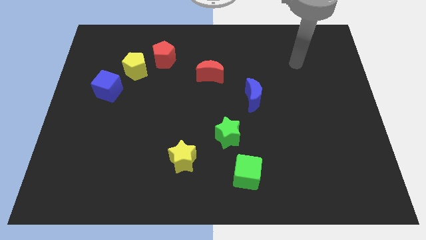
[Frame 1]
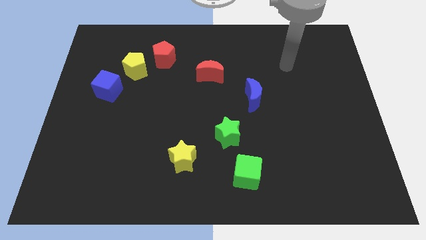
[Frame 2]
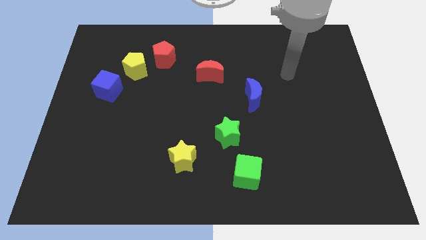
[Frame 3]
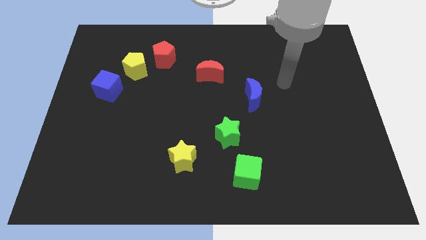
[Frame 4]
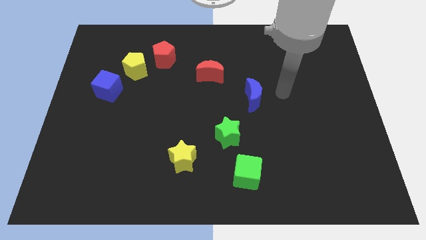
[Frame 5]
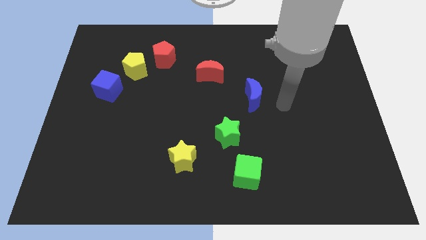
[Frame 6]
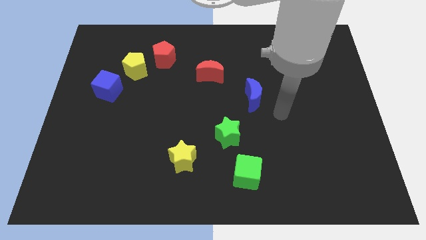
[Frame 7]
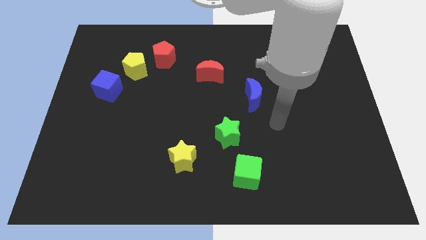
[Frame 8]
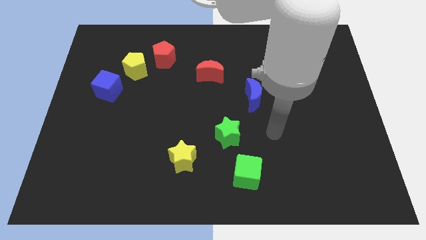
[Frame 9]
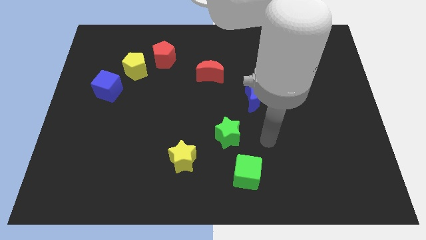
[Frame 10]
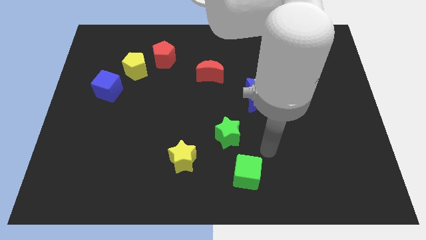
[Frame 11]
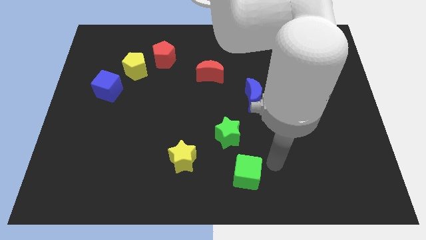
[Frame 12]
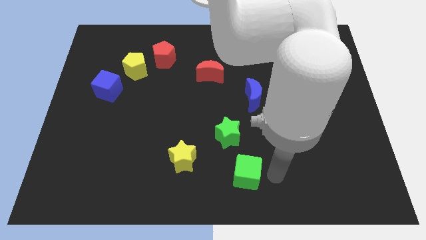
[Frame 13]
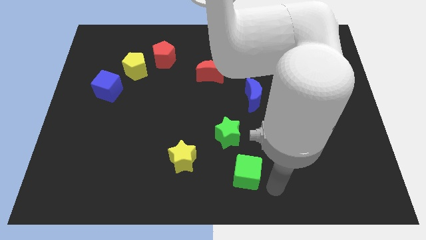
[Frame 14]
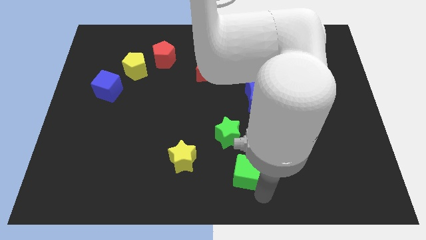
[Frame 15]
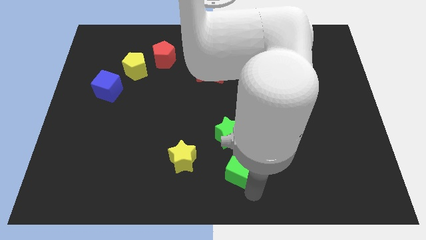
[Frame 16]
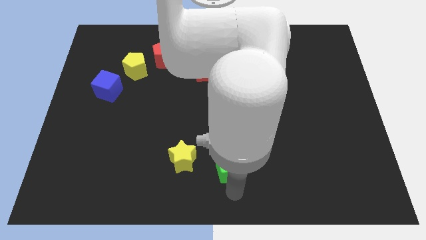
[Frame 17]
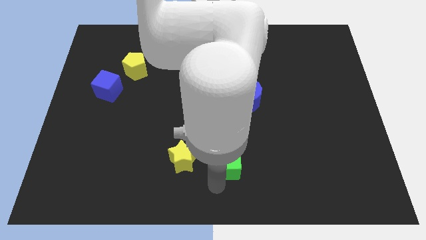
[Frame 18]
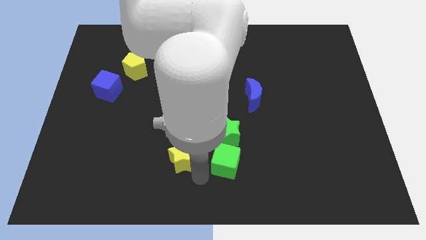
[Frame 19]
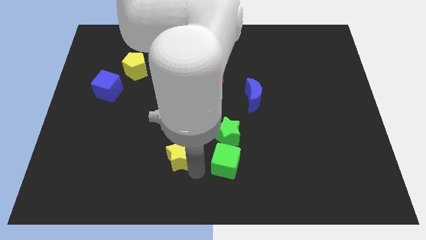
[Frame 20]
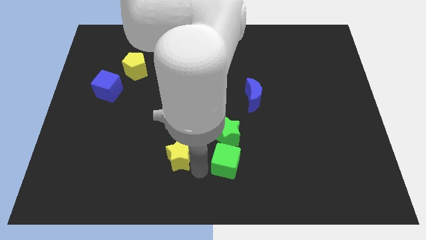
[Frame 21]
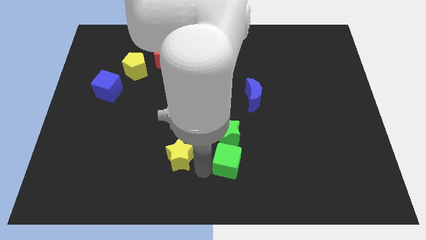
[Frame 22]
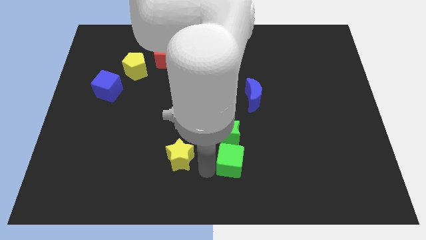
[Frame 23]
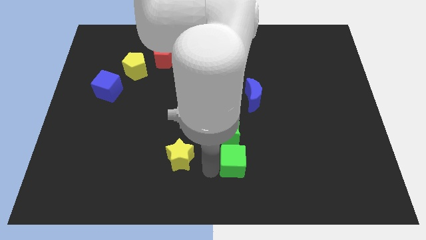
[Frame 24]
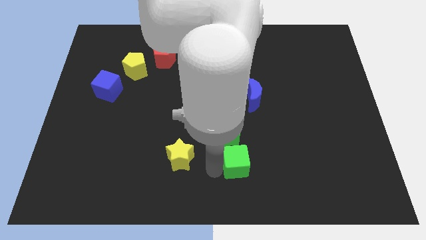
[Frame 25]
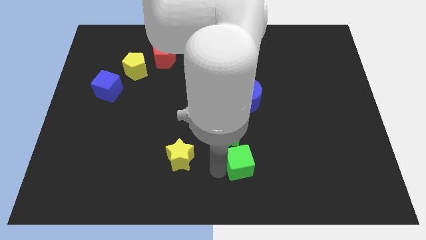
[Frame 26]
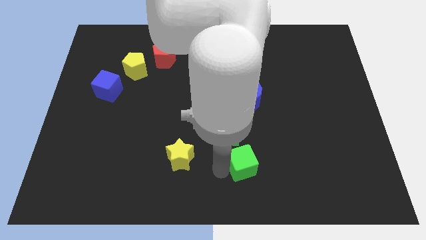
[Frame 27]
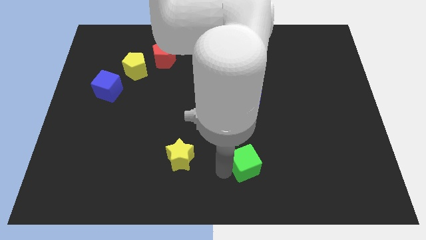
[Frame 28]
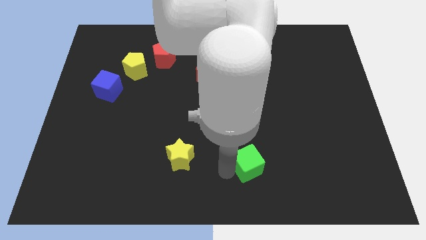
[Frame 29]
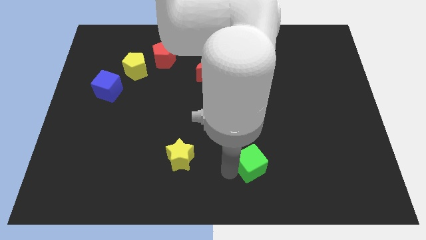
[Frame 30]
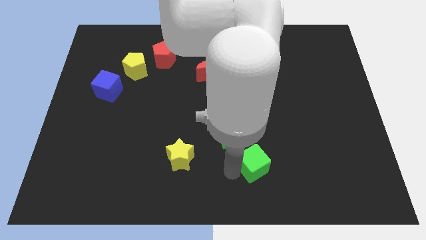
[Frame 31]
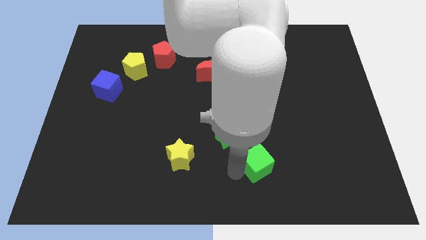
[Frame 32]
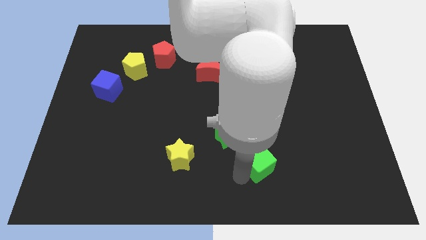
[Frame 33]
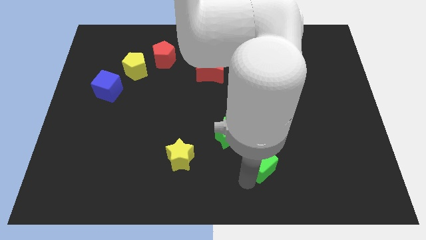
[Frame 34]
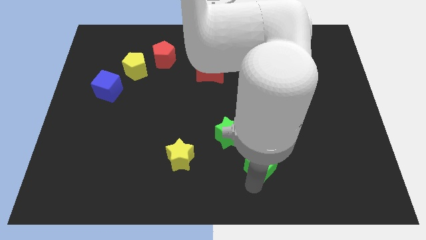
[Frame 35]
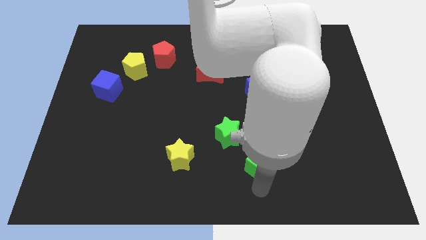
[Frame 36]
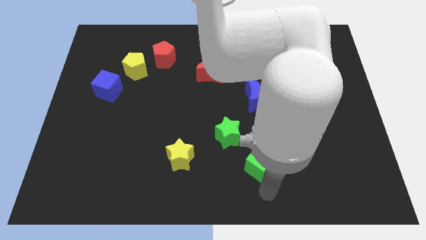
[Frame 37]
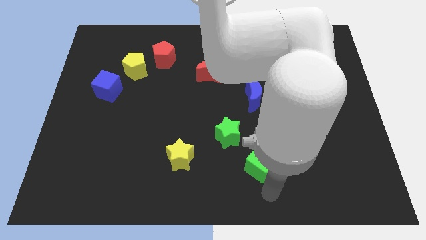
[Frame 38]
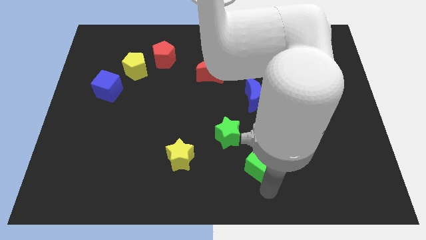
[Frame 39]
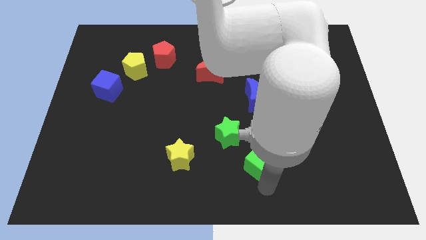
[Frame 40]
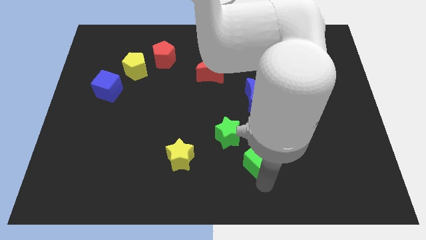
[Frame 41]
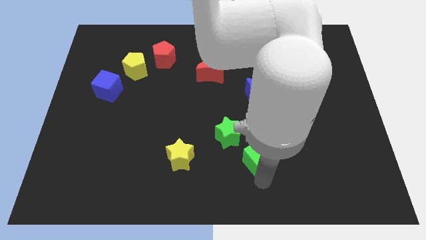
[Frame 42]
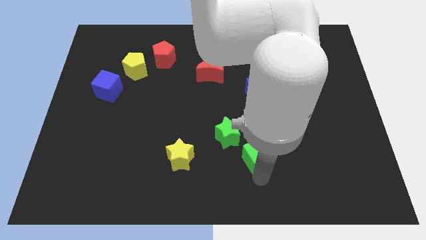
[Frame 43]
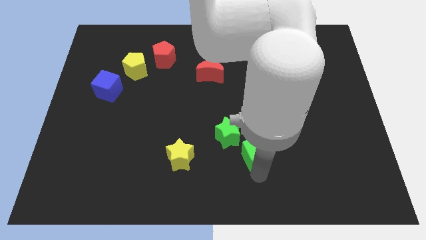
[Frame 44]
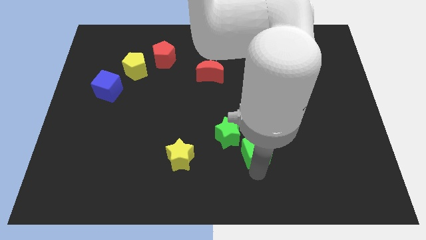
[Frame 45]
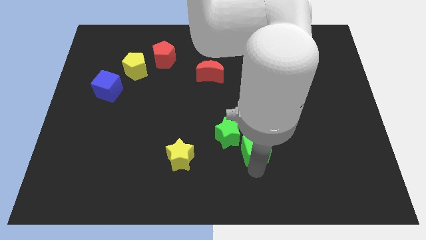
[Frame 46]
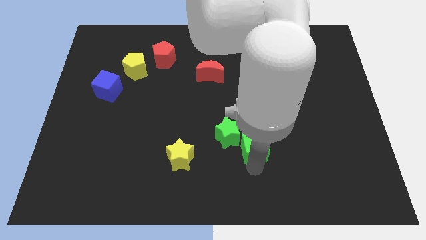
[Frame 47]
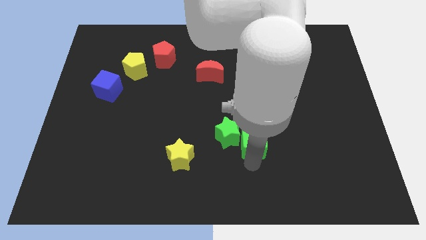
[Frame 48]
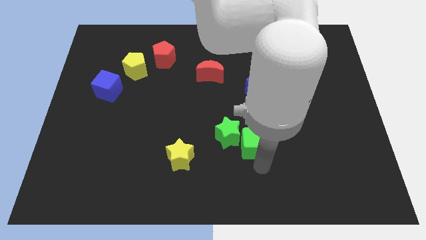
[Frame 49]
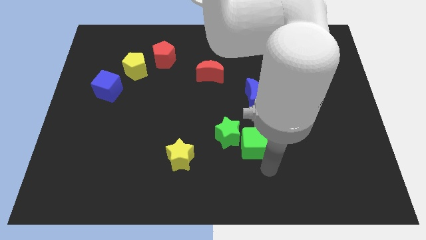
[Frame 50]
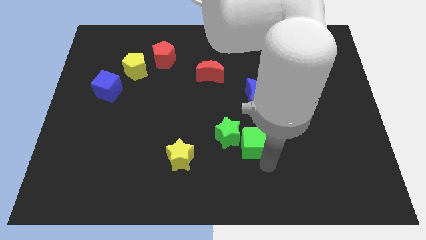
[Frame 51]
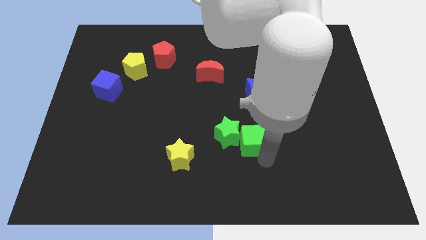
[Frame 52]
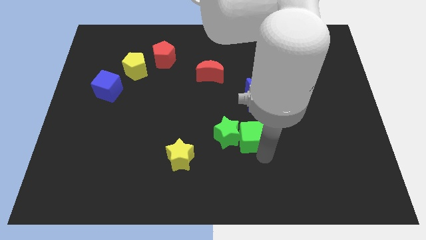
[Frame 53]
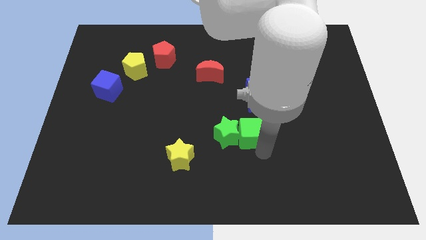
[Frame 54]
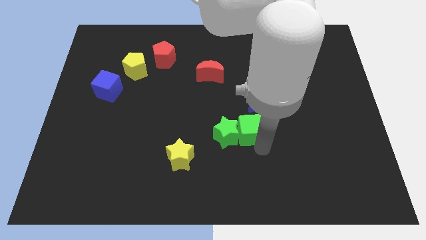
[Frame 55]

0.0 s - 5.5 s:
put the green cube to the middle

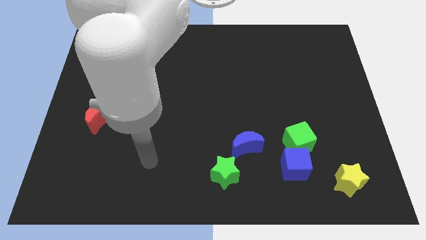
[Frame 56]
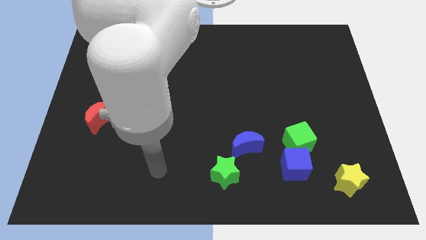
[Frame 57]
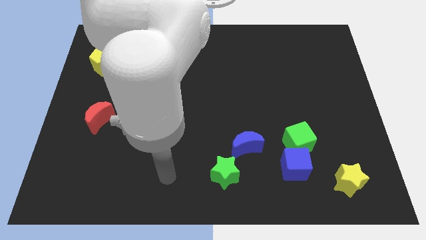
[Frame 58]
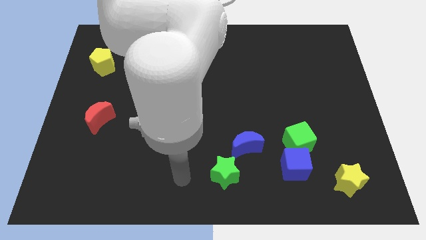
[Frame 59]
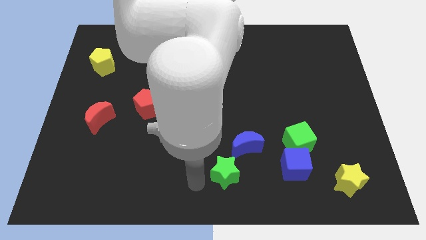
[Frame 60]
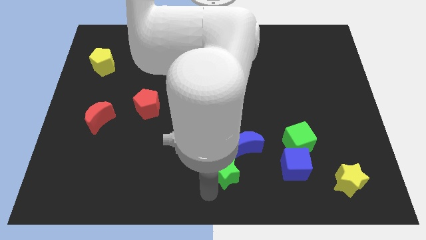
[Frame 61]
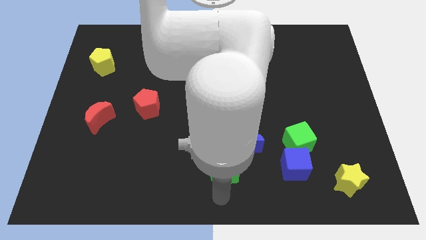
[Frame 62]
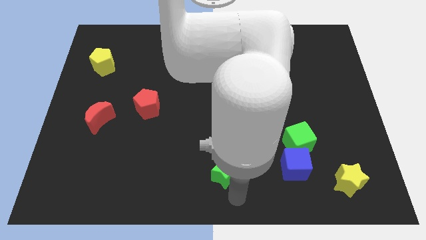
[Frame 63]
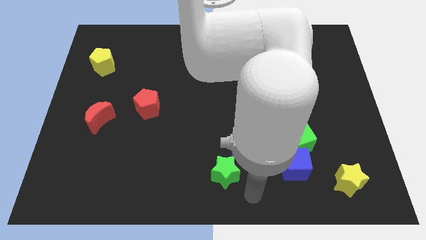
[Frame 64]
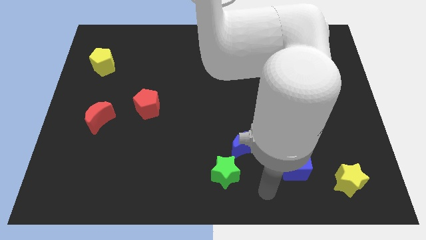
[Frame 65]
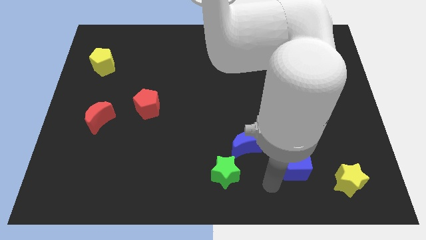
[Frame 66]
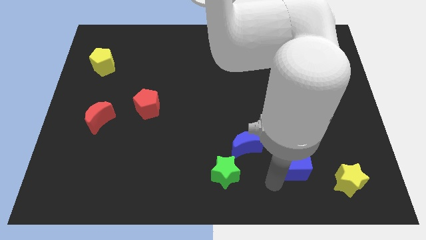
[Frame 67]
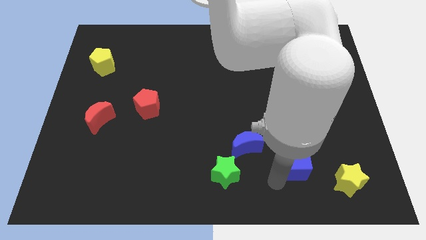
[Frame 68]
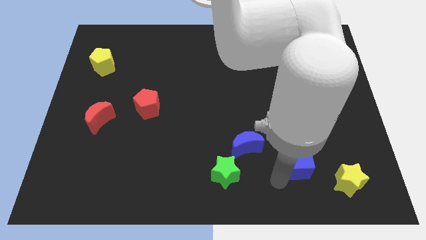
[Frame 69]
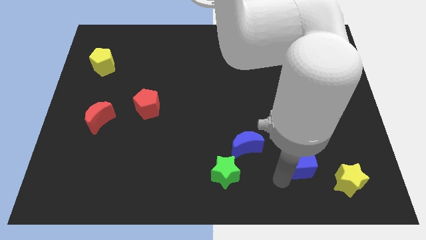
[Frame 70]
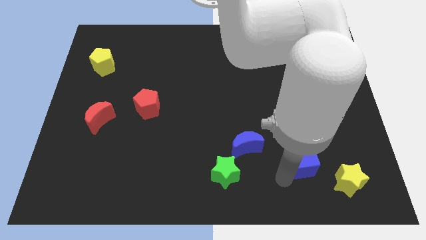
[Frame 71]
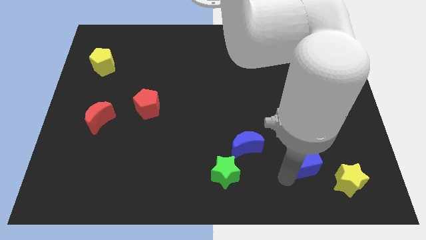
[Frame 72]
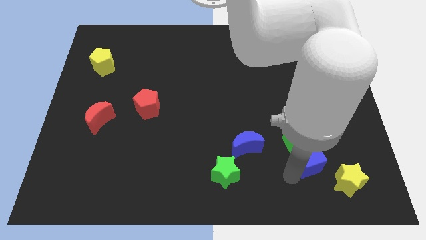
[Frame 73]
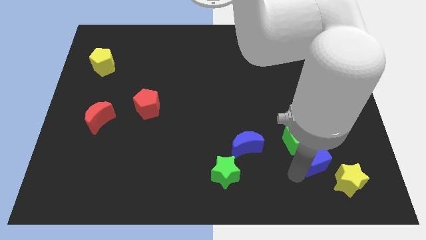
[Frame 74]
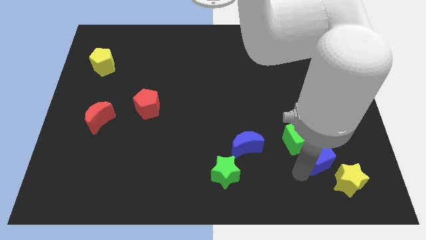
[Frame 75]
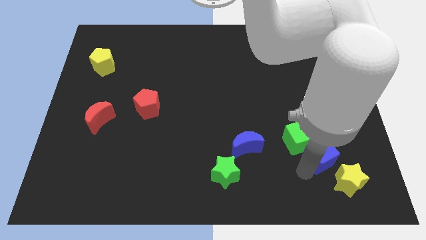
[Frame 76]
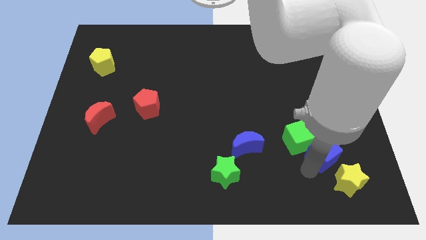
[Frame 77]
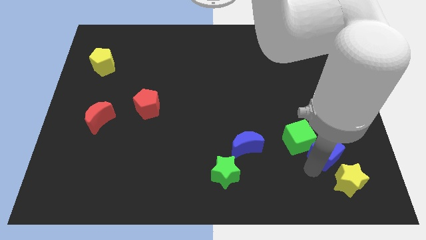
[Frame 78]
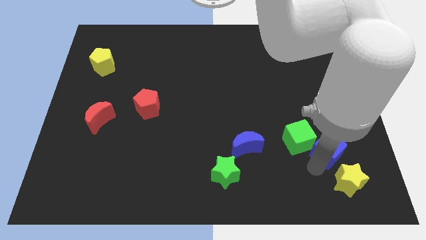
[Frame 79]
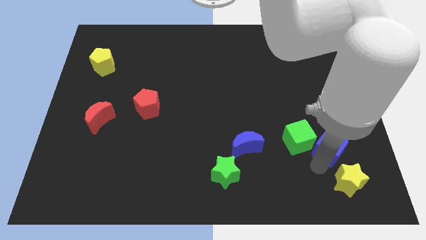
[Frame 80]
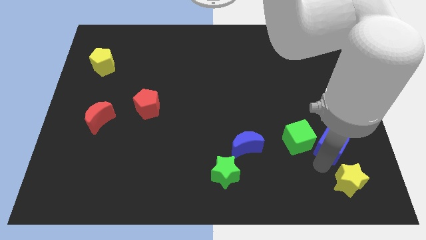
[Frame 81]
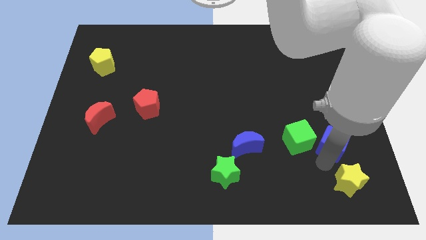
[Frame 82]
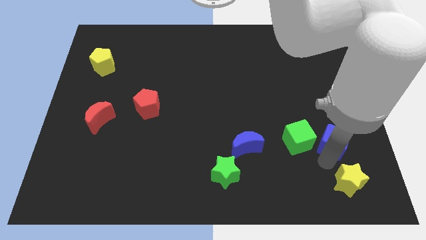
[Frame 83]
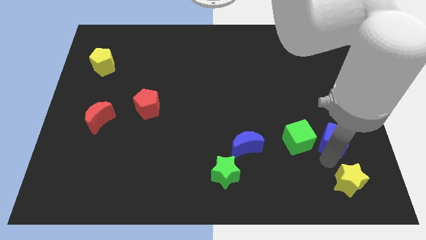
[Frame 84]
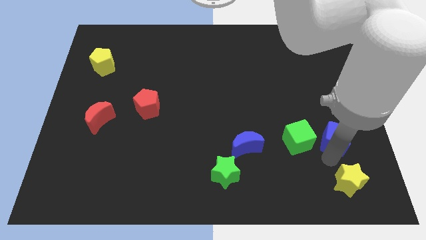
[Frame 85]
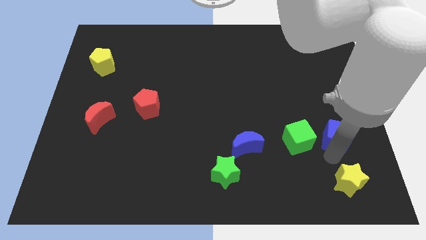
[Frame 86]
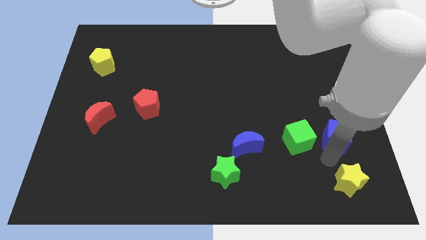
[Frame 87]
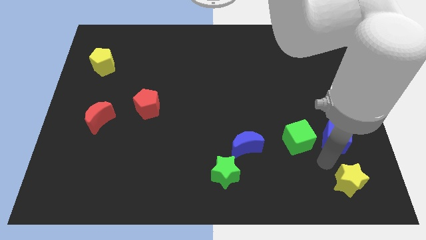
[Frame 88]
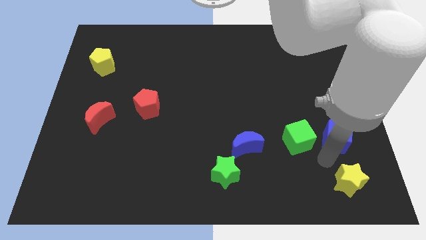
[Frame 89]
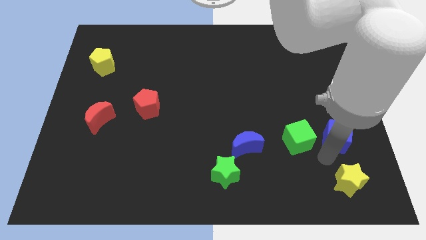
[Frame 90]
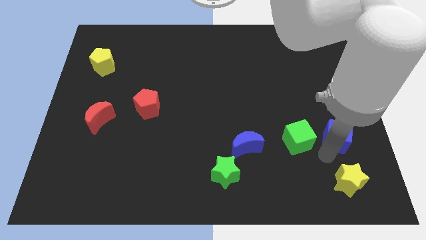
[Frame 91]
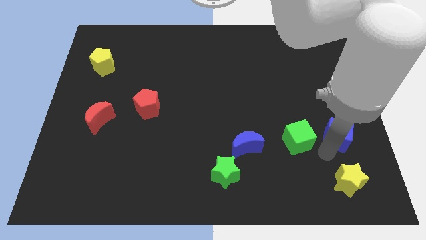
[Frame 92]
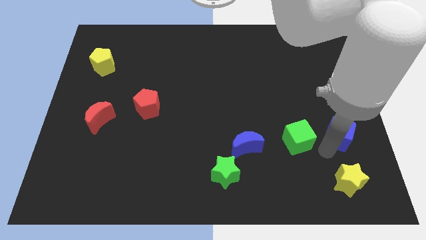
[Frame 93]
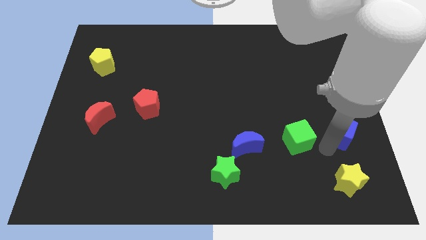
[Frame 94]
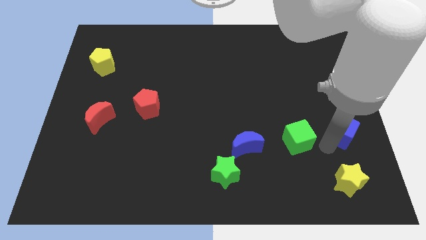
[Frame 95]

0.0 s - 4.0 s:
push the blue cube to the center right
